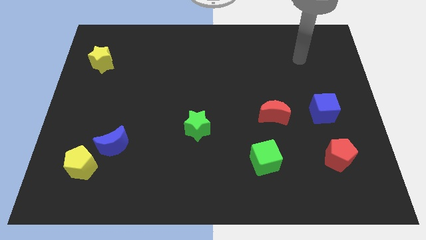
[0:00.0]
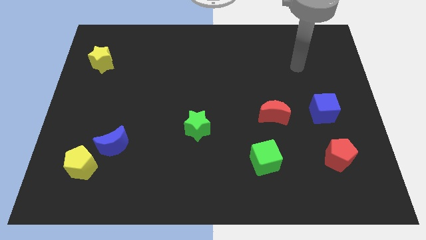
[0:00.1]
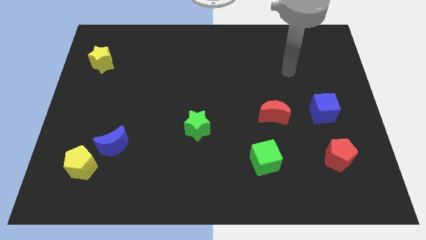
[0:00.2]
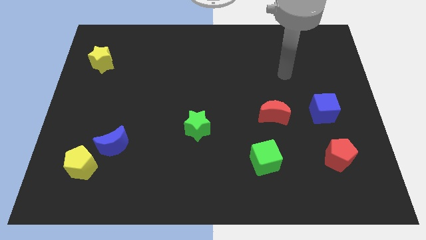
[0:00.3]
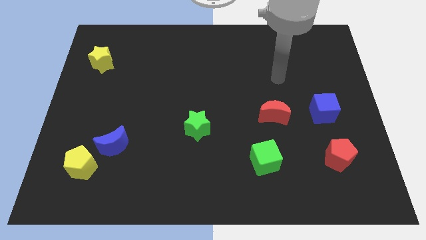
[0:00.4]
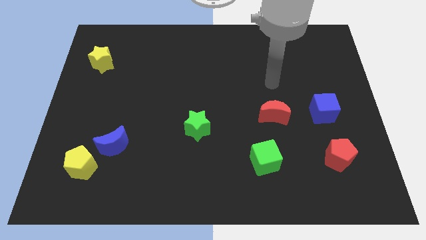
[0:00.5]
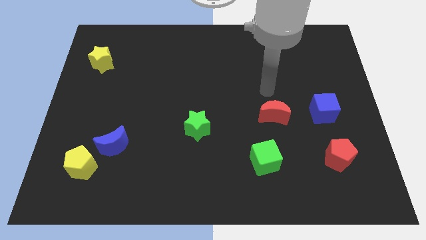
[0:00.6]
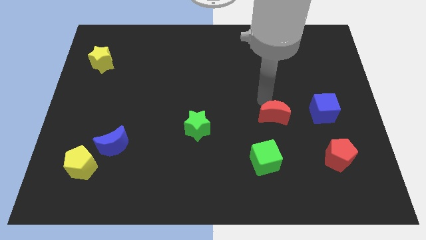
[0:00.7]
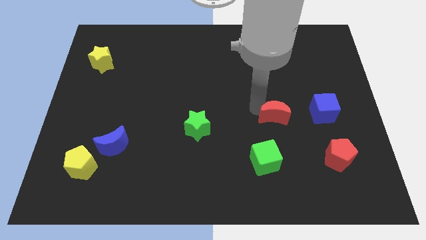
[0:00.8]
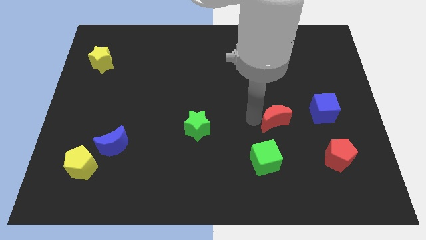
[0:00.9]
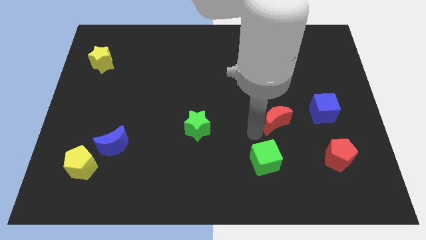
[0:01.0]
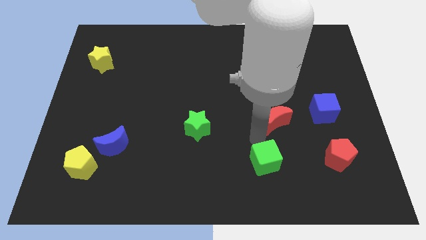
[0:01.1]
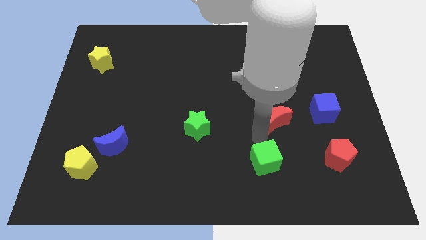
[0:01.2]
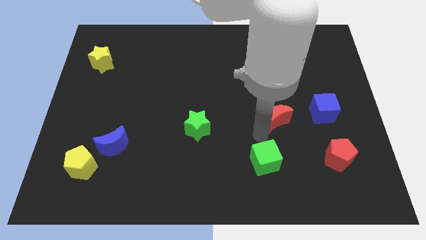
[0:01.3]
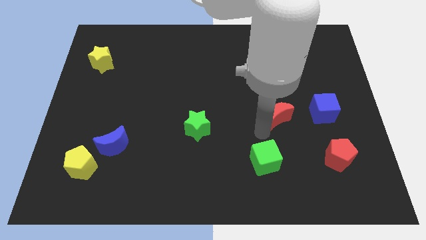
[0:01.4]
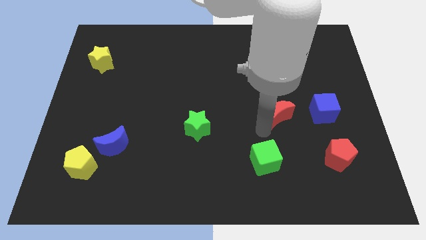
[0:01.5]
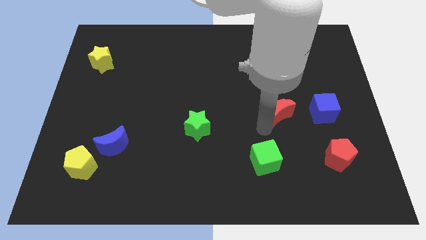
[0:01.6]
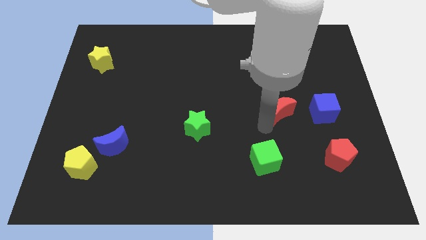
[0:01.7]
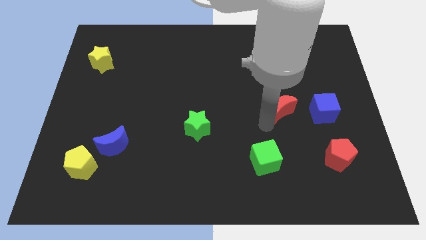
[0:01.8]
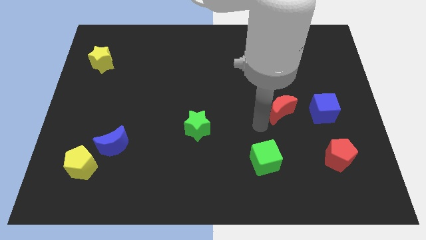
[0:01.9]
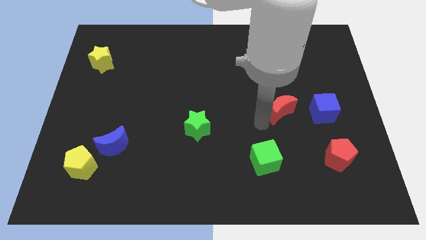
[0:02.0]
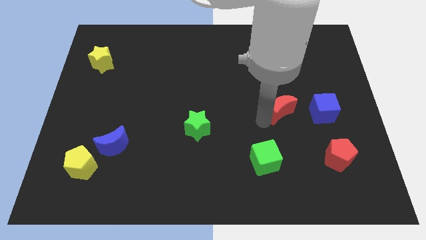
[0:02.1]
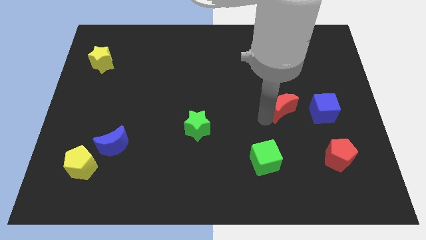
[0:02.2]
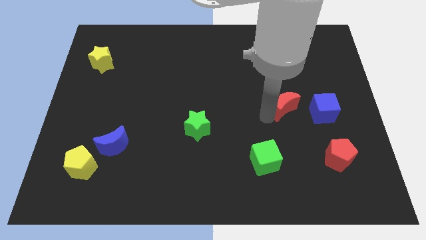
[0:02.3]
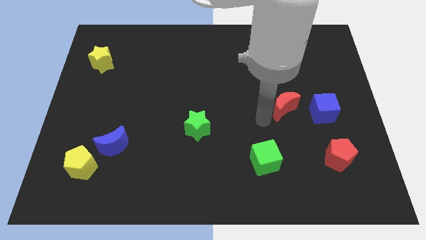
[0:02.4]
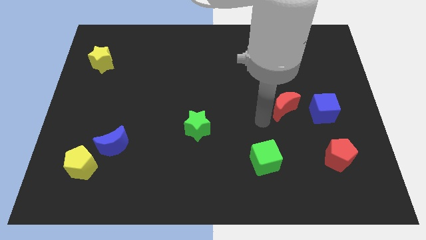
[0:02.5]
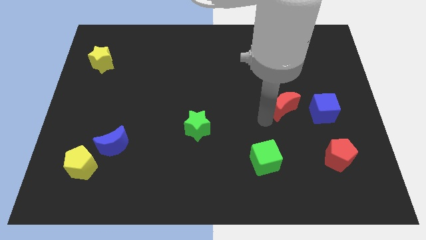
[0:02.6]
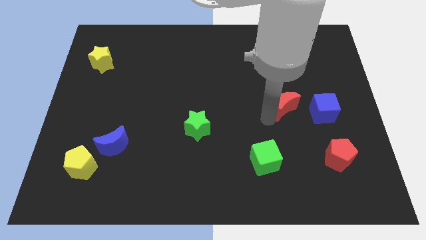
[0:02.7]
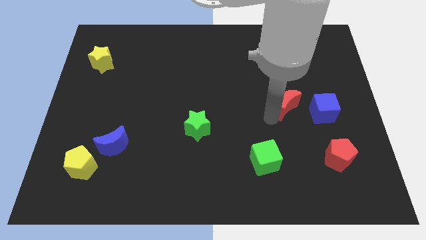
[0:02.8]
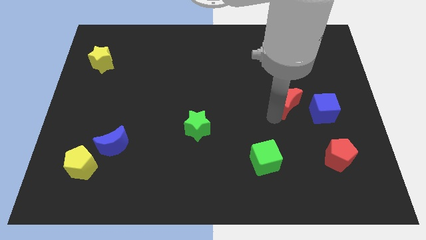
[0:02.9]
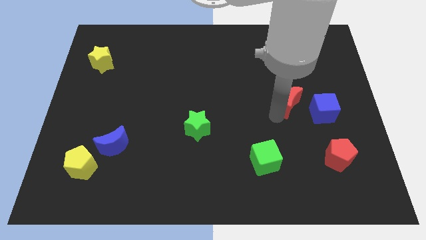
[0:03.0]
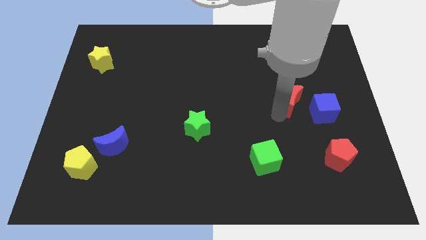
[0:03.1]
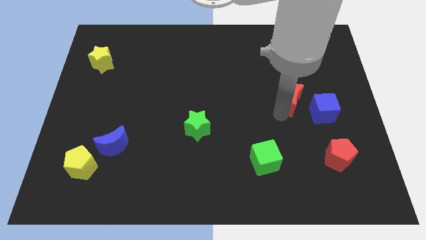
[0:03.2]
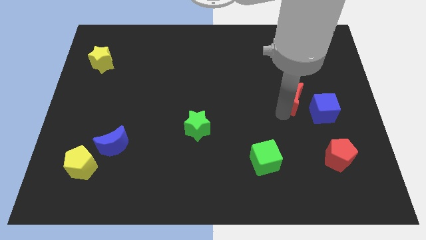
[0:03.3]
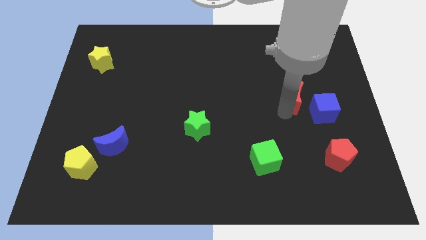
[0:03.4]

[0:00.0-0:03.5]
push the red moon up and to the right diagonally a little

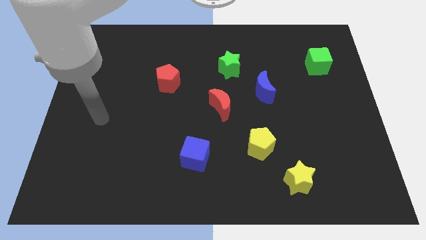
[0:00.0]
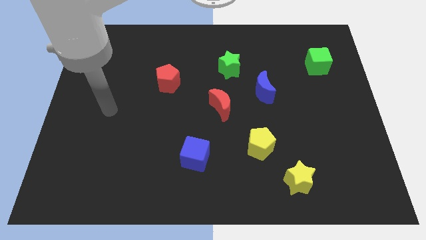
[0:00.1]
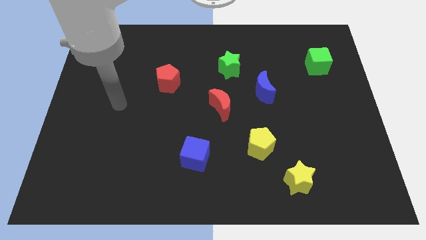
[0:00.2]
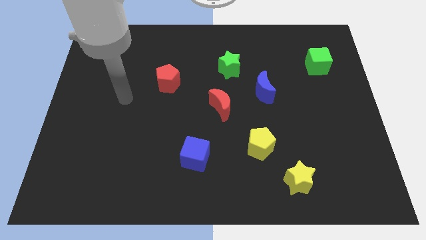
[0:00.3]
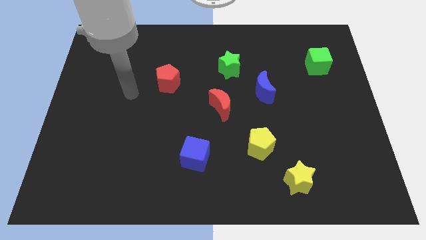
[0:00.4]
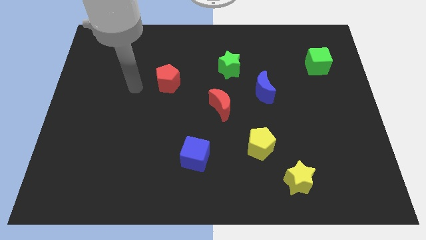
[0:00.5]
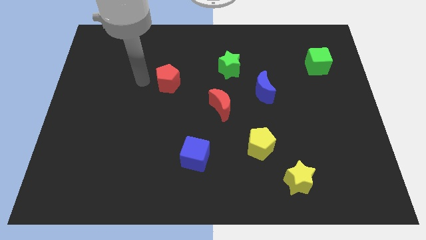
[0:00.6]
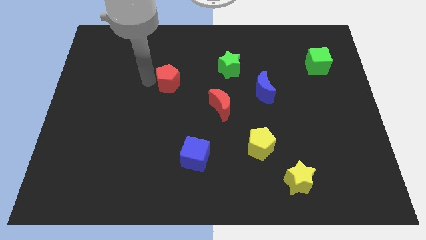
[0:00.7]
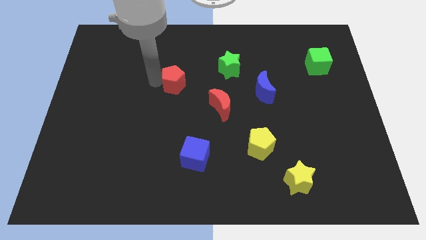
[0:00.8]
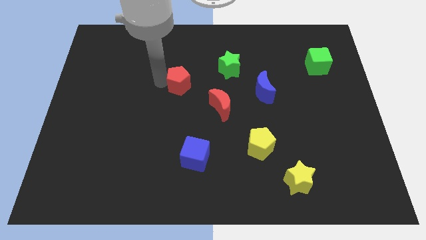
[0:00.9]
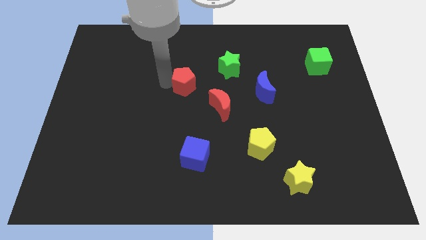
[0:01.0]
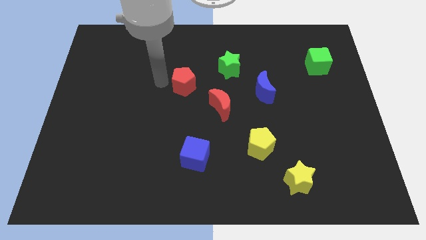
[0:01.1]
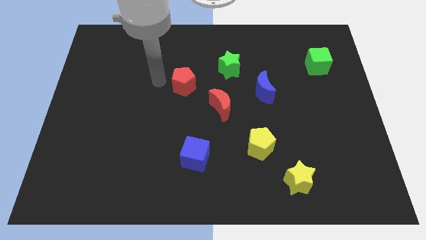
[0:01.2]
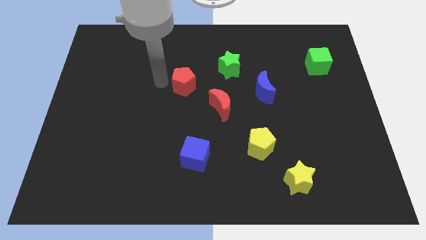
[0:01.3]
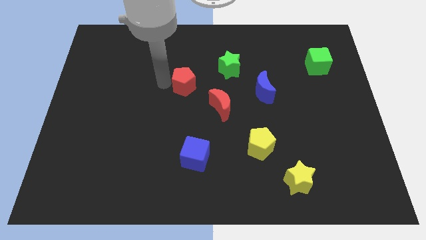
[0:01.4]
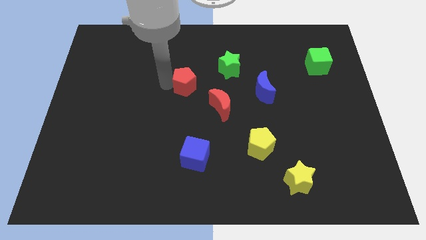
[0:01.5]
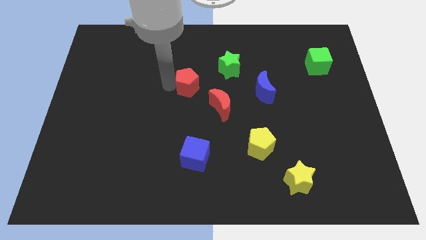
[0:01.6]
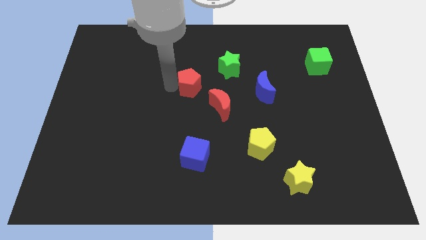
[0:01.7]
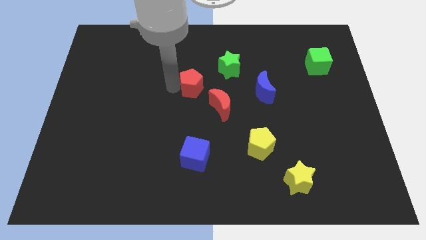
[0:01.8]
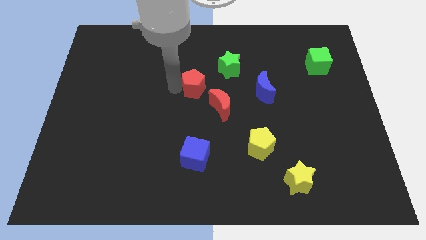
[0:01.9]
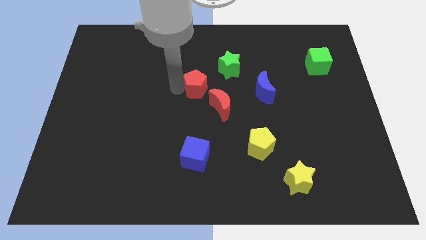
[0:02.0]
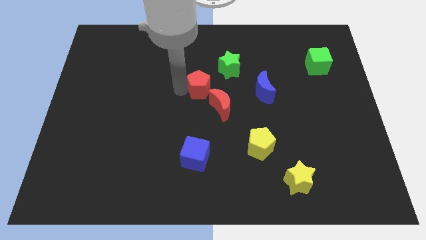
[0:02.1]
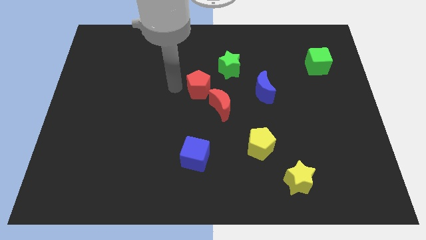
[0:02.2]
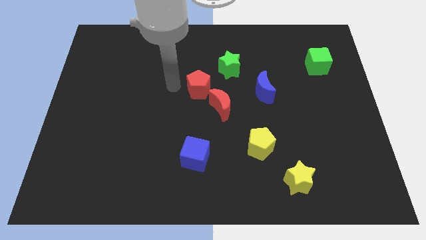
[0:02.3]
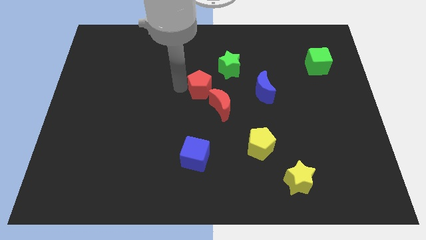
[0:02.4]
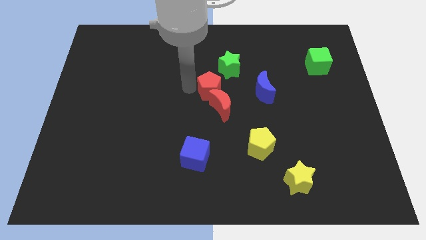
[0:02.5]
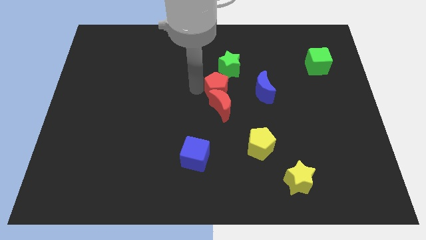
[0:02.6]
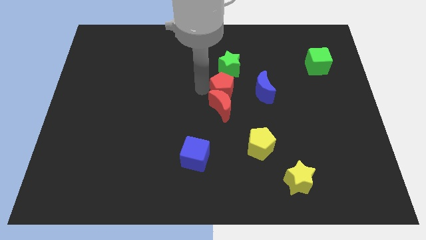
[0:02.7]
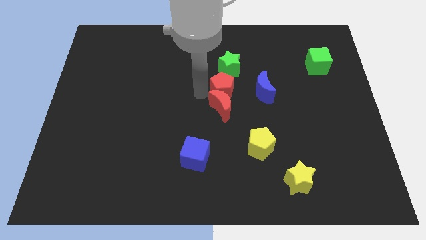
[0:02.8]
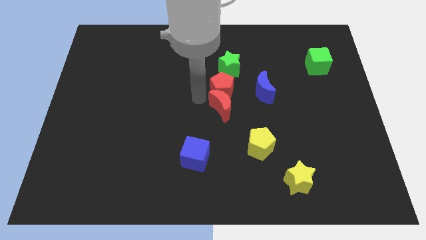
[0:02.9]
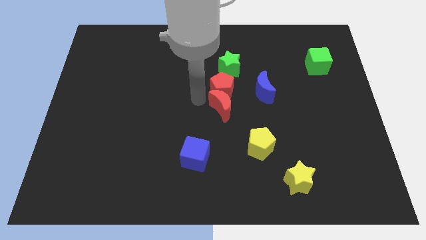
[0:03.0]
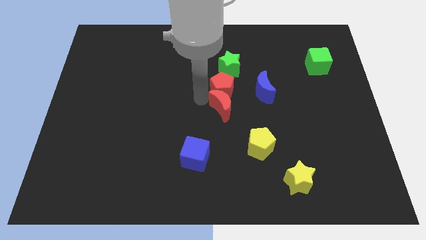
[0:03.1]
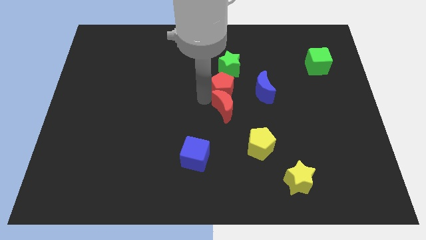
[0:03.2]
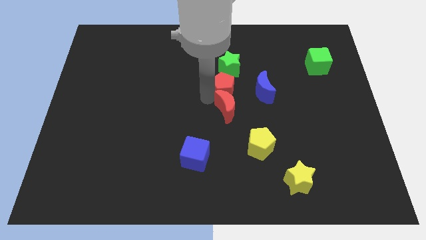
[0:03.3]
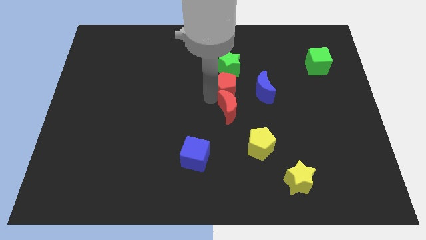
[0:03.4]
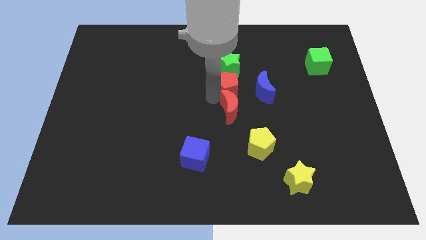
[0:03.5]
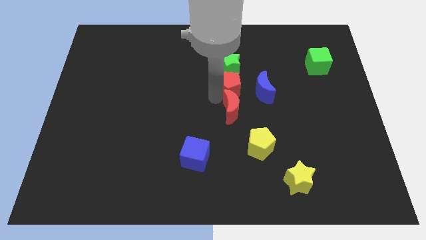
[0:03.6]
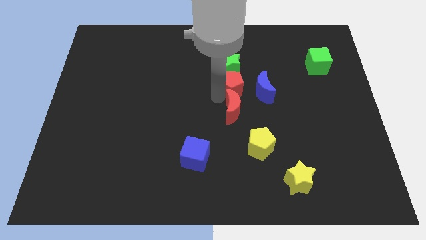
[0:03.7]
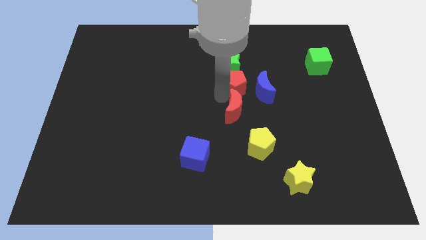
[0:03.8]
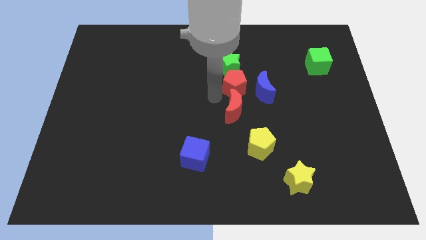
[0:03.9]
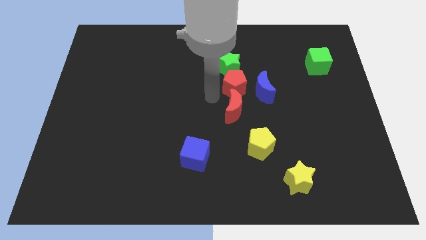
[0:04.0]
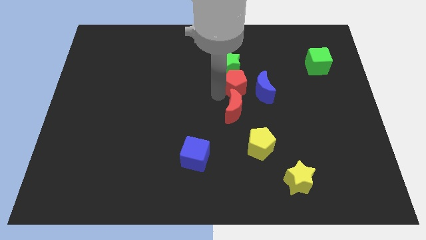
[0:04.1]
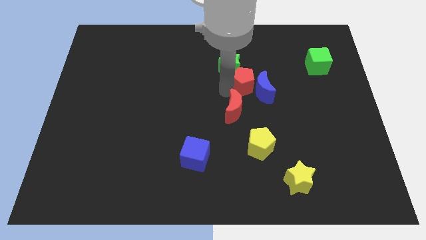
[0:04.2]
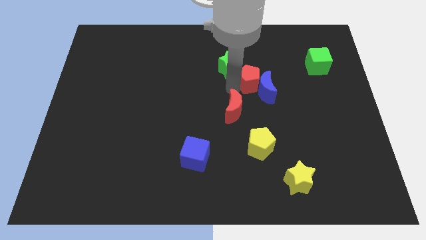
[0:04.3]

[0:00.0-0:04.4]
slide the red pentagon to the right

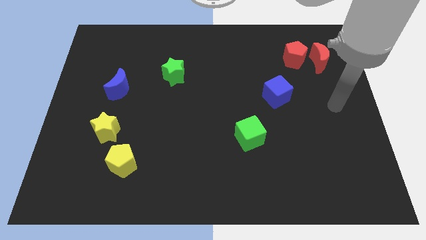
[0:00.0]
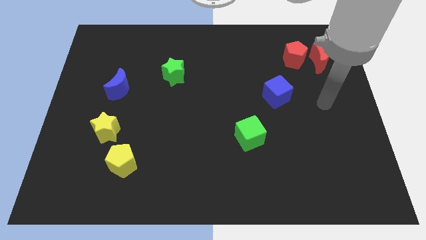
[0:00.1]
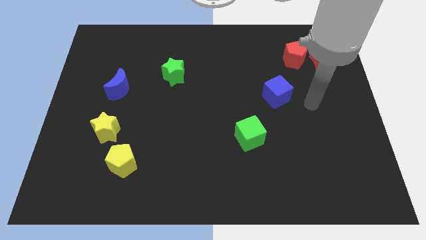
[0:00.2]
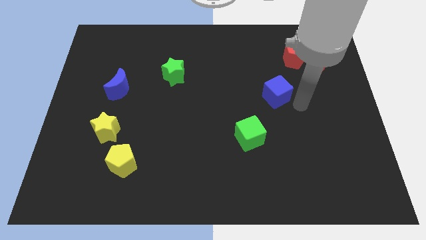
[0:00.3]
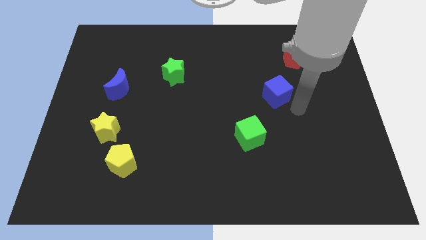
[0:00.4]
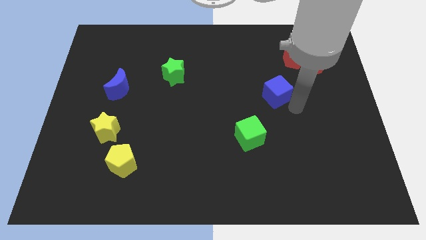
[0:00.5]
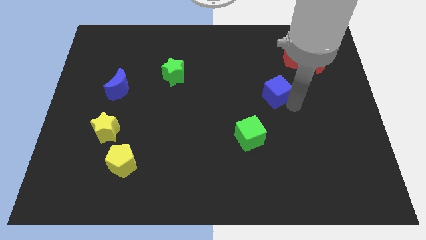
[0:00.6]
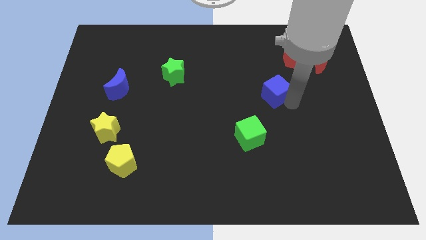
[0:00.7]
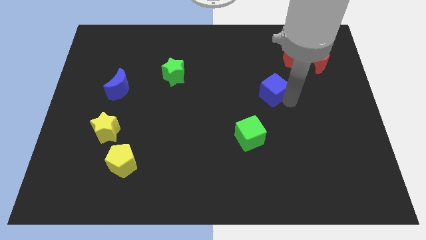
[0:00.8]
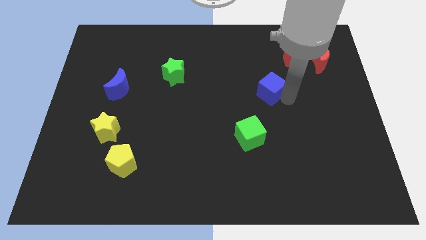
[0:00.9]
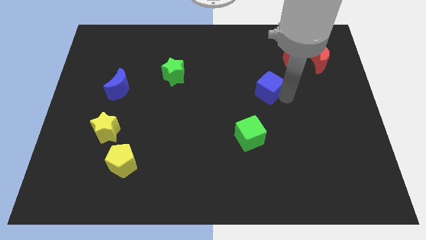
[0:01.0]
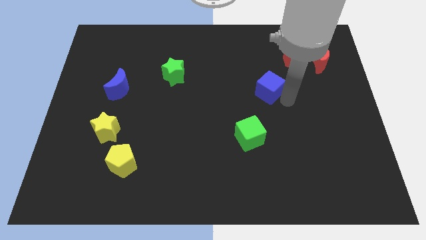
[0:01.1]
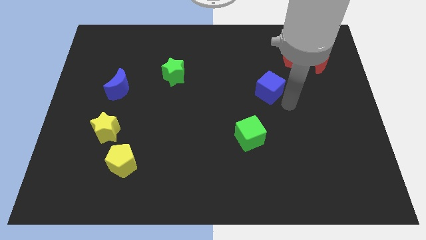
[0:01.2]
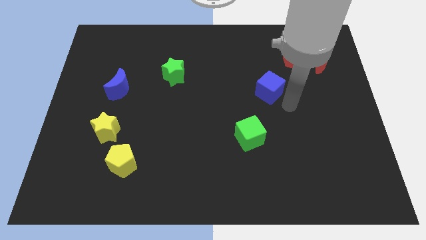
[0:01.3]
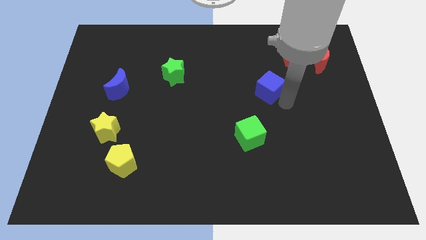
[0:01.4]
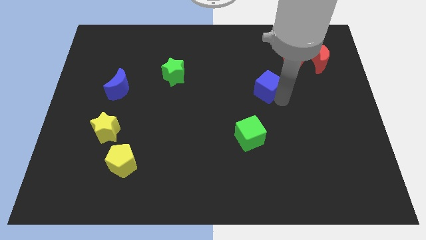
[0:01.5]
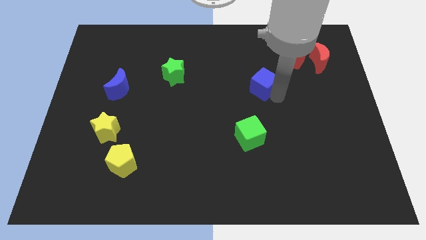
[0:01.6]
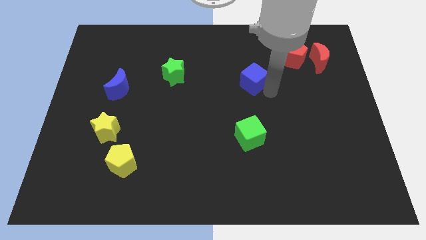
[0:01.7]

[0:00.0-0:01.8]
slightly slide the blue cube upwards and to the left
